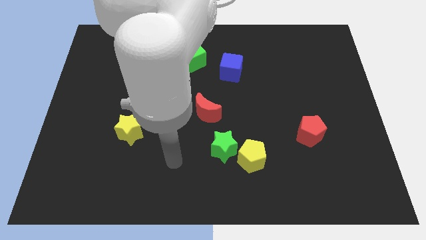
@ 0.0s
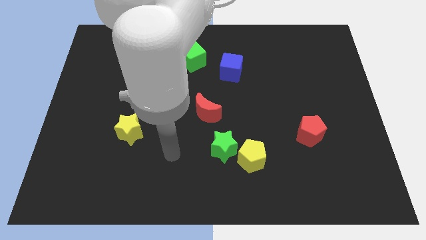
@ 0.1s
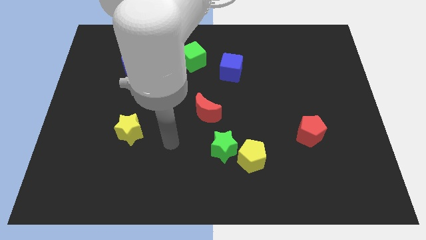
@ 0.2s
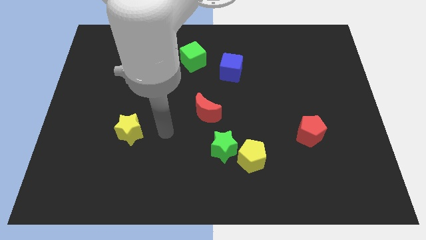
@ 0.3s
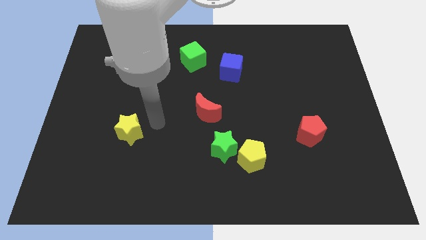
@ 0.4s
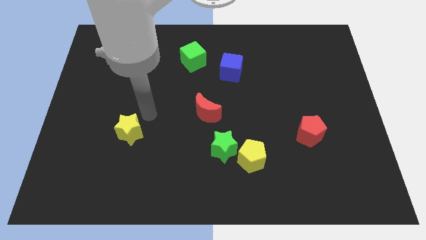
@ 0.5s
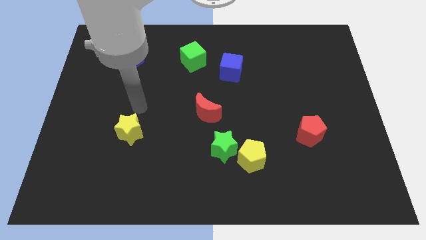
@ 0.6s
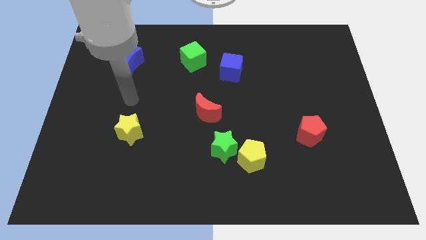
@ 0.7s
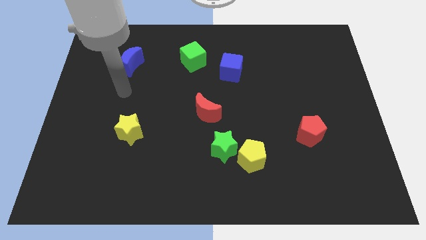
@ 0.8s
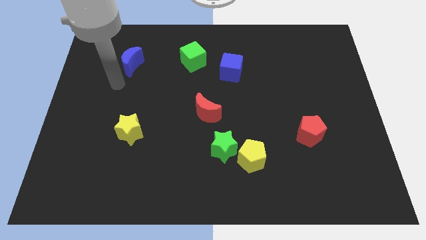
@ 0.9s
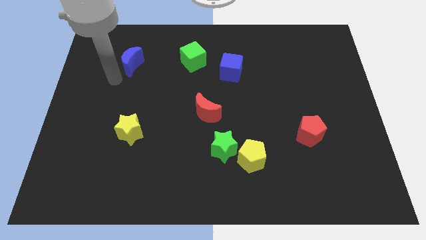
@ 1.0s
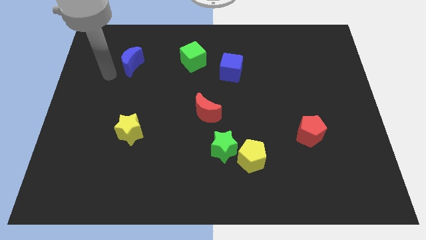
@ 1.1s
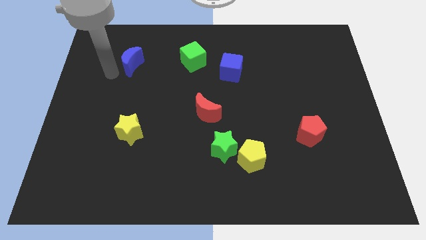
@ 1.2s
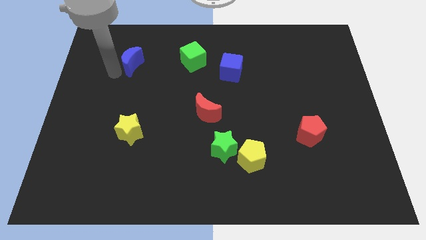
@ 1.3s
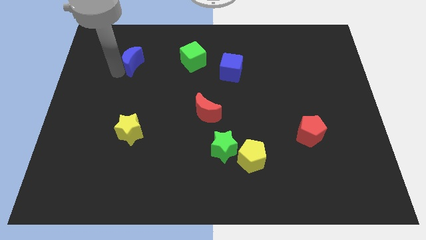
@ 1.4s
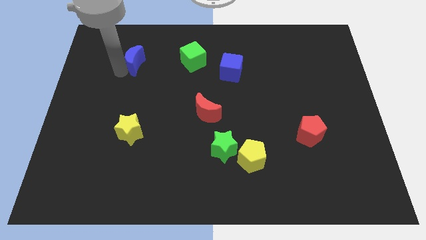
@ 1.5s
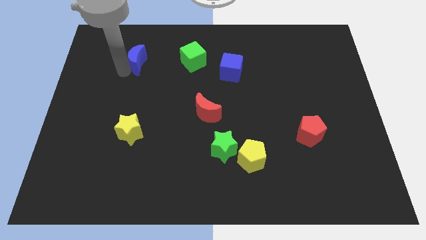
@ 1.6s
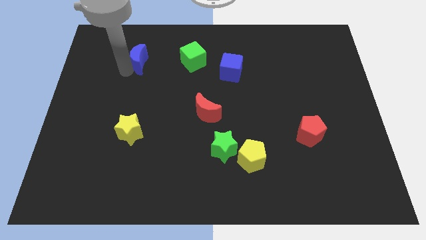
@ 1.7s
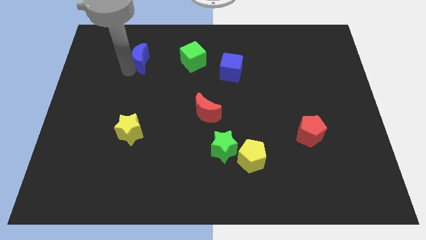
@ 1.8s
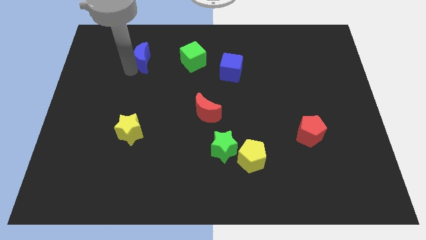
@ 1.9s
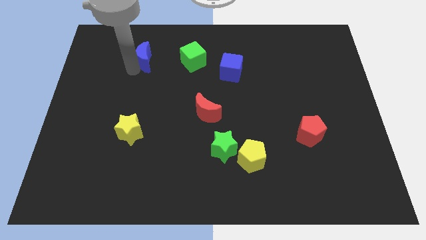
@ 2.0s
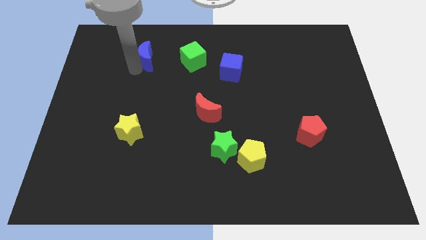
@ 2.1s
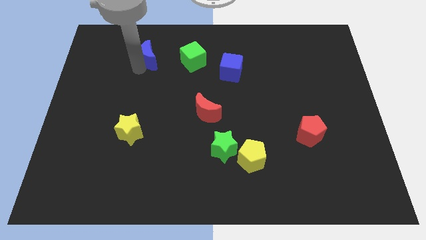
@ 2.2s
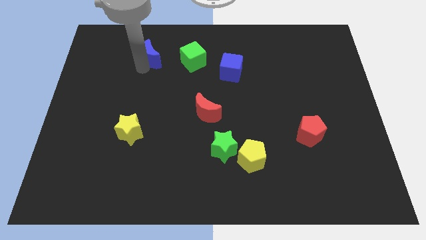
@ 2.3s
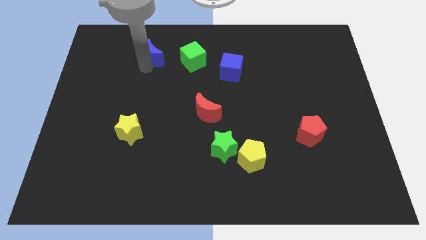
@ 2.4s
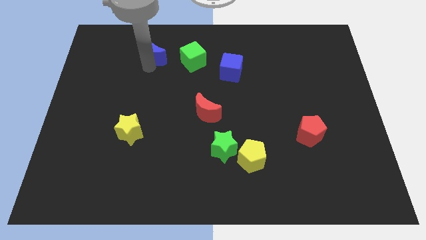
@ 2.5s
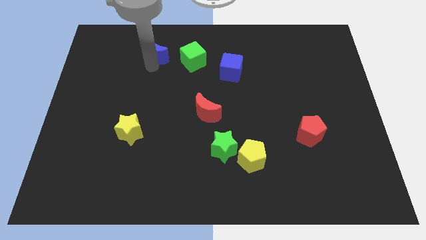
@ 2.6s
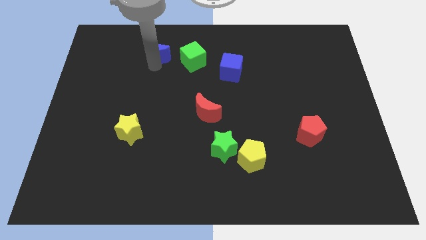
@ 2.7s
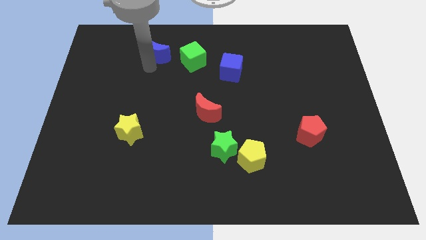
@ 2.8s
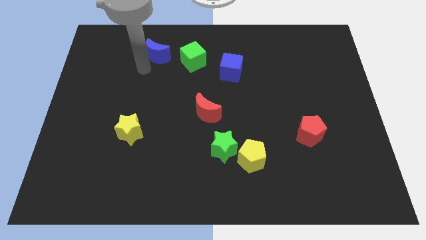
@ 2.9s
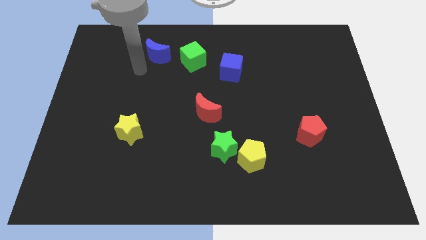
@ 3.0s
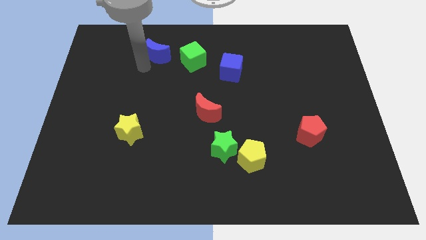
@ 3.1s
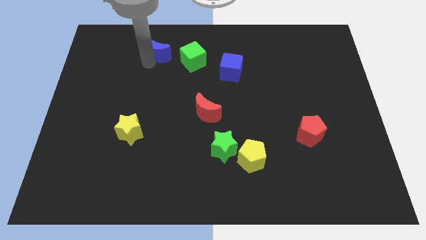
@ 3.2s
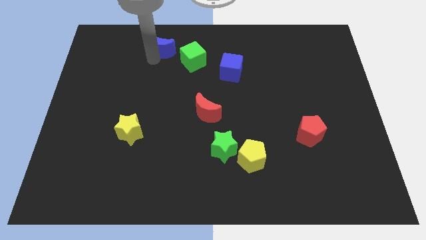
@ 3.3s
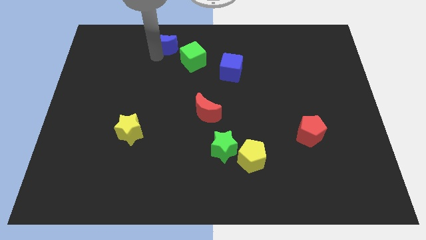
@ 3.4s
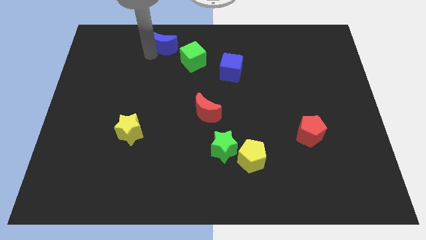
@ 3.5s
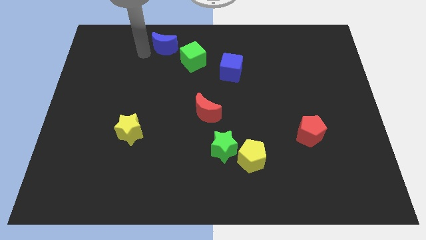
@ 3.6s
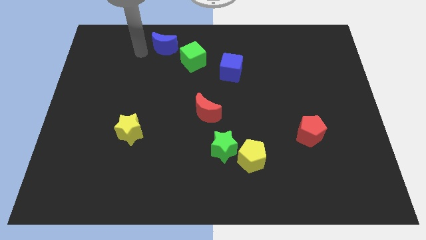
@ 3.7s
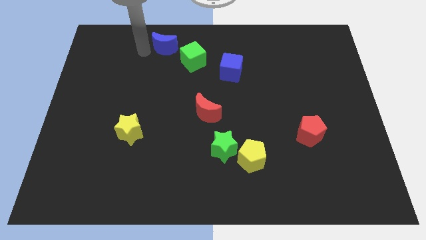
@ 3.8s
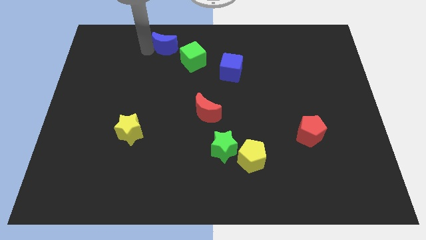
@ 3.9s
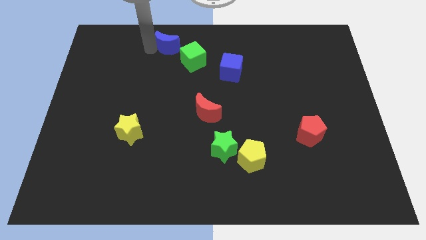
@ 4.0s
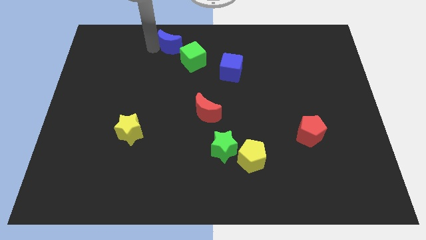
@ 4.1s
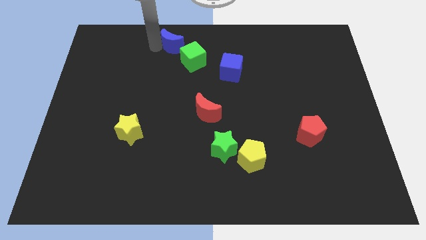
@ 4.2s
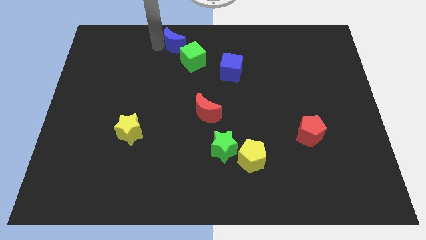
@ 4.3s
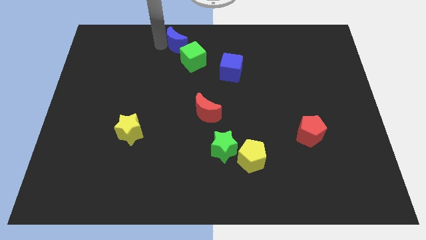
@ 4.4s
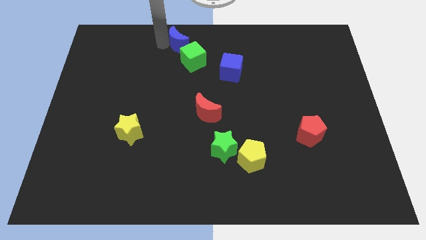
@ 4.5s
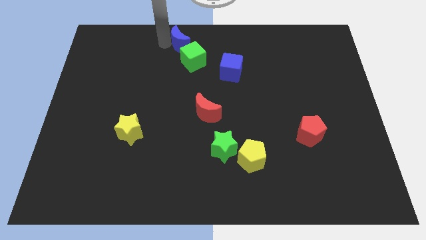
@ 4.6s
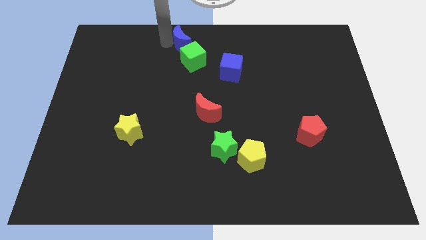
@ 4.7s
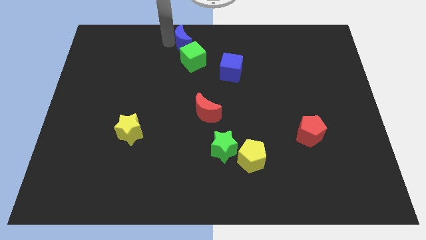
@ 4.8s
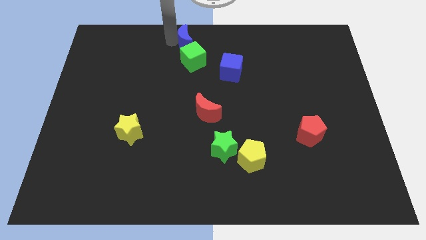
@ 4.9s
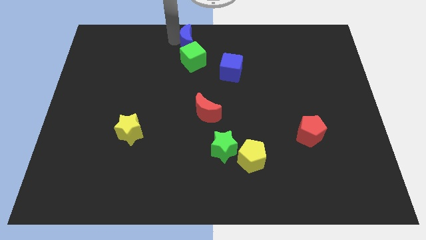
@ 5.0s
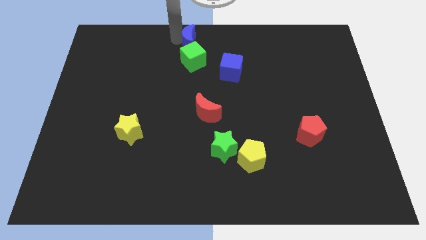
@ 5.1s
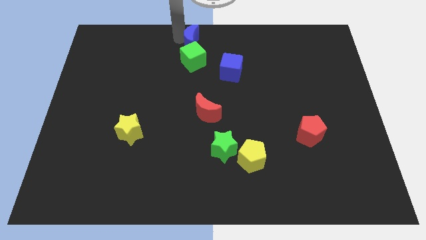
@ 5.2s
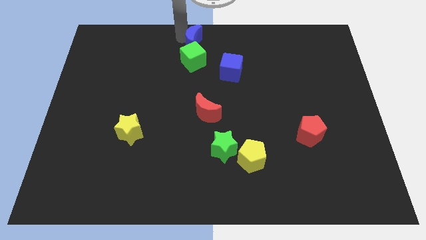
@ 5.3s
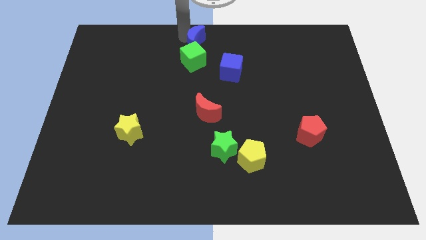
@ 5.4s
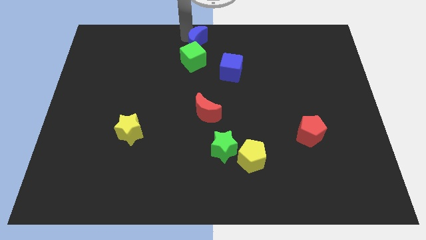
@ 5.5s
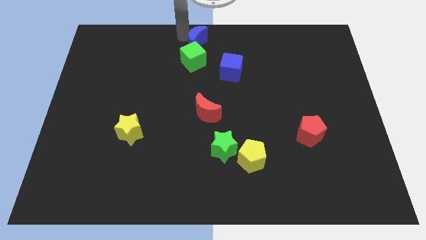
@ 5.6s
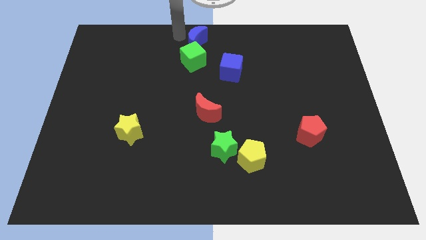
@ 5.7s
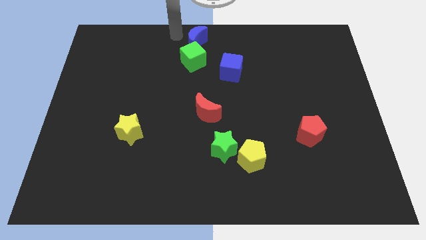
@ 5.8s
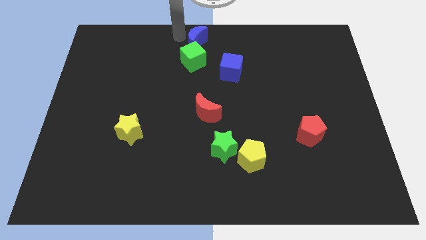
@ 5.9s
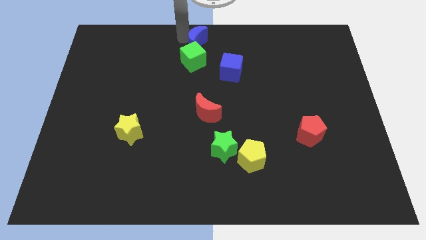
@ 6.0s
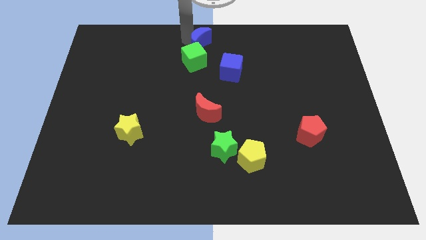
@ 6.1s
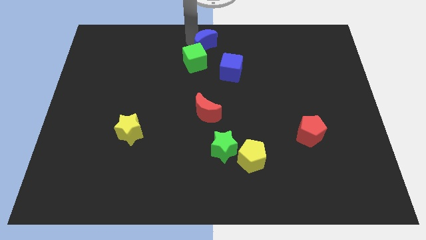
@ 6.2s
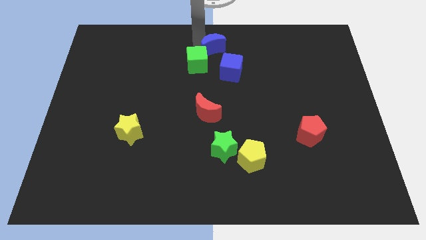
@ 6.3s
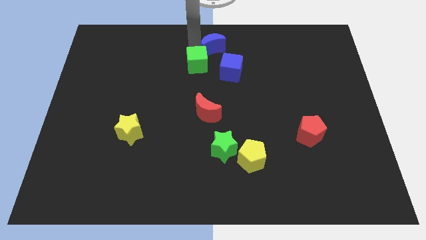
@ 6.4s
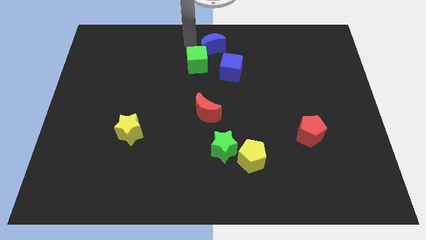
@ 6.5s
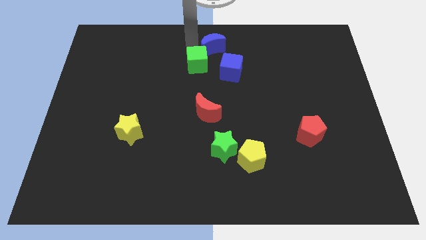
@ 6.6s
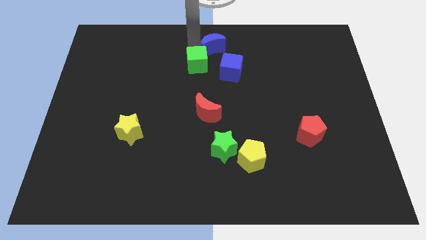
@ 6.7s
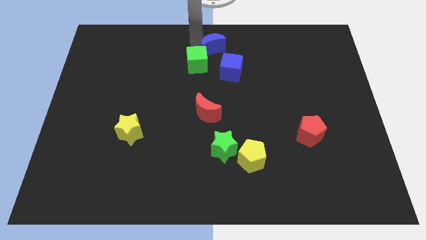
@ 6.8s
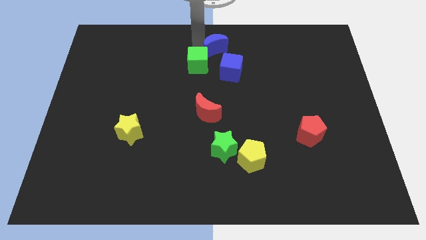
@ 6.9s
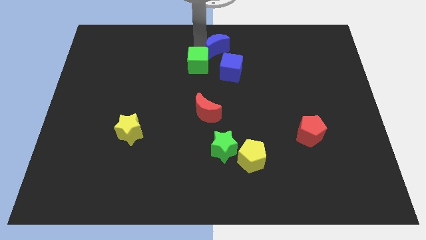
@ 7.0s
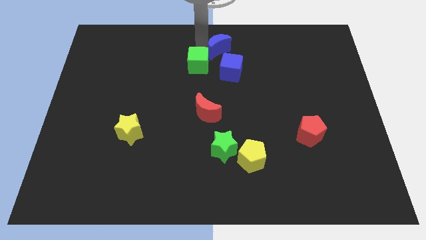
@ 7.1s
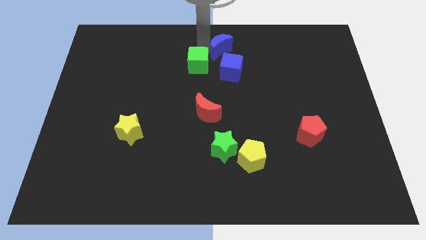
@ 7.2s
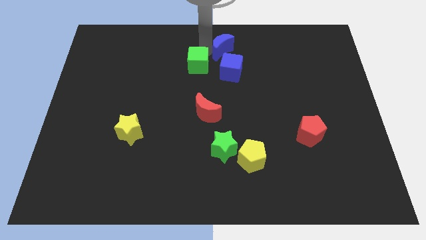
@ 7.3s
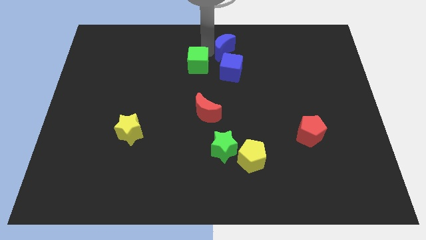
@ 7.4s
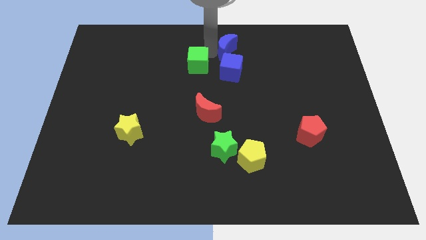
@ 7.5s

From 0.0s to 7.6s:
push the blue moon to the right of the green cube
